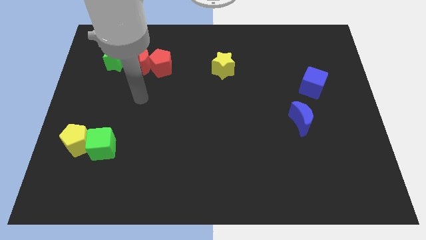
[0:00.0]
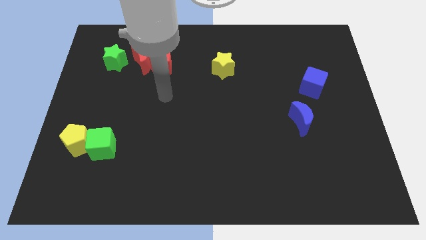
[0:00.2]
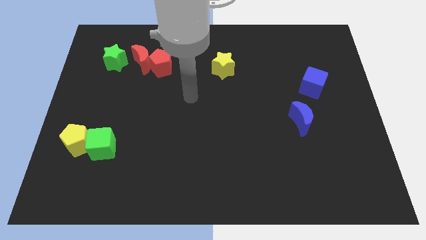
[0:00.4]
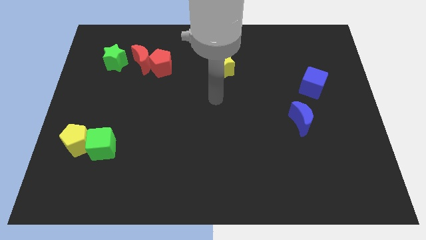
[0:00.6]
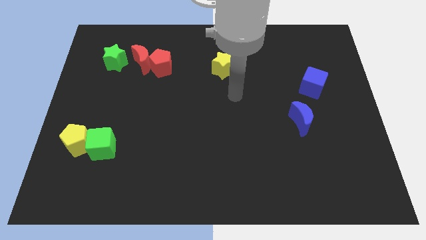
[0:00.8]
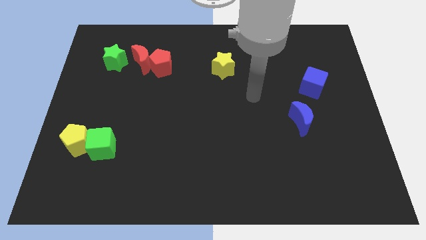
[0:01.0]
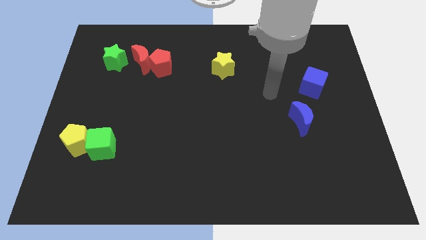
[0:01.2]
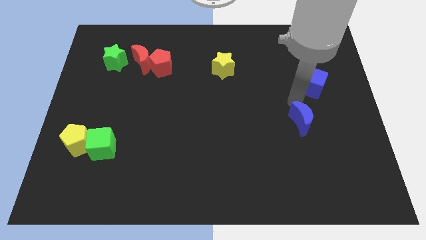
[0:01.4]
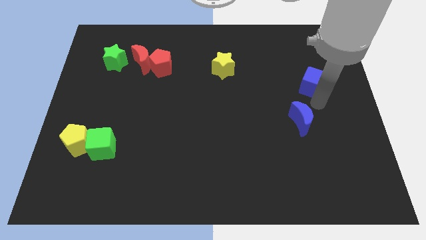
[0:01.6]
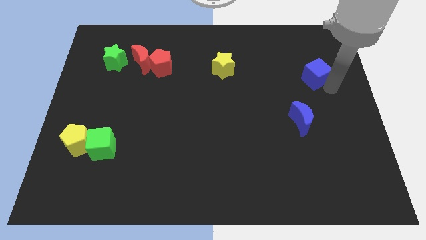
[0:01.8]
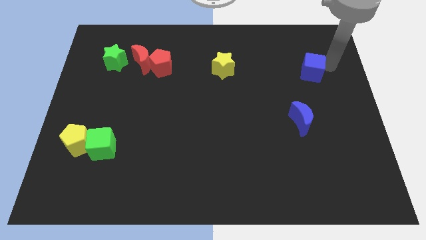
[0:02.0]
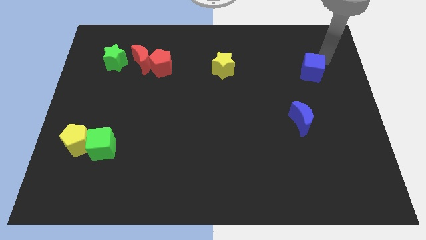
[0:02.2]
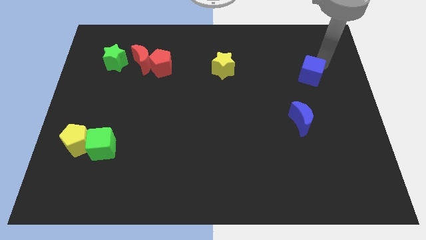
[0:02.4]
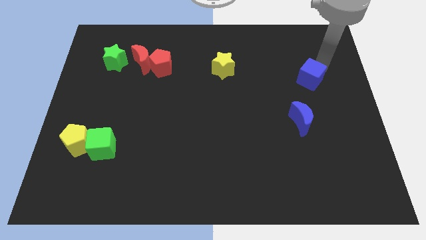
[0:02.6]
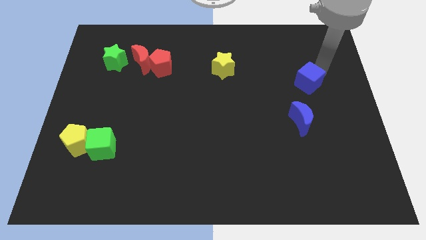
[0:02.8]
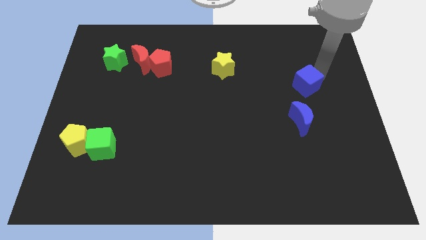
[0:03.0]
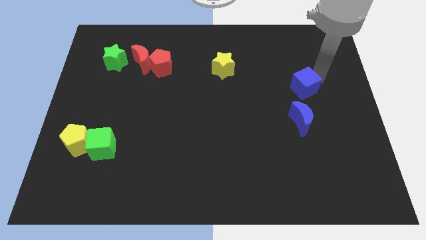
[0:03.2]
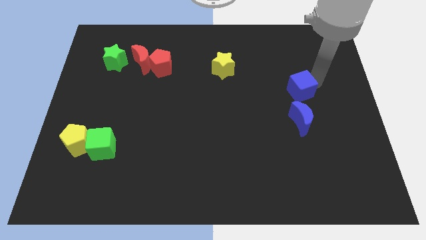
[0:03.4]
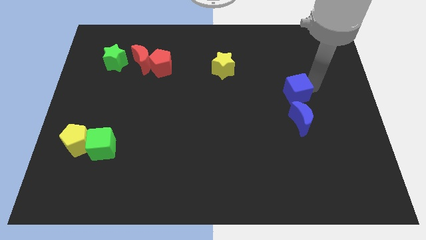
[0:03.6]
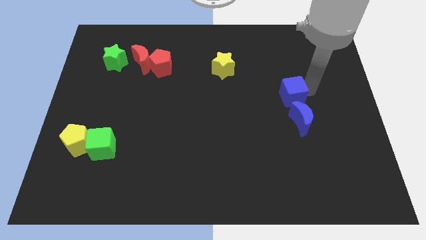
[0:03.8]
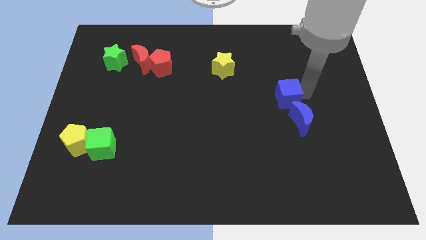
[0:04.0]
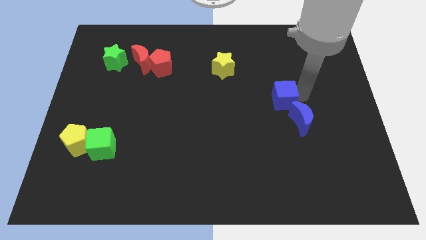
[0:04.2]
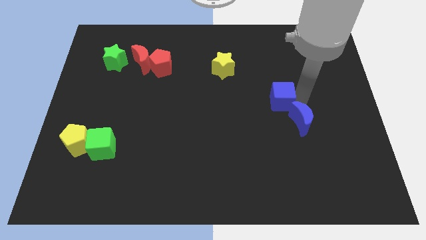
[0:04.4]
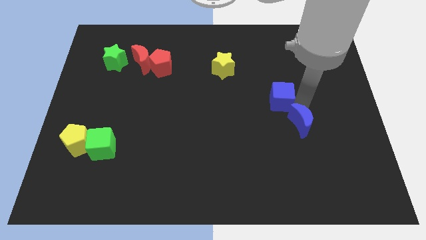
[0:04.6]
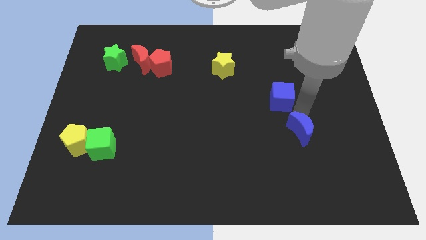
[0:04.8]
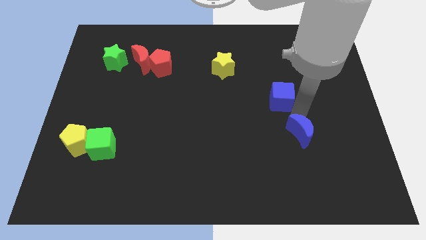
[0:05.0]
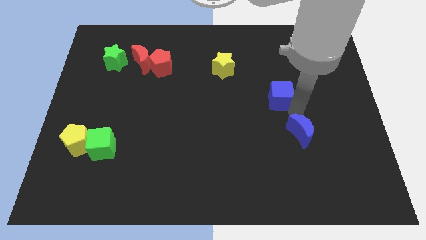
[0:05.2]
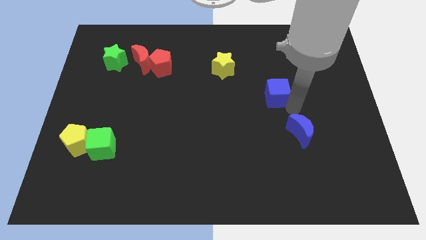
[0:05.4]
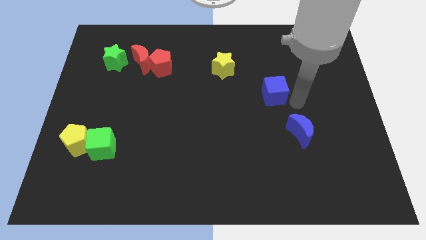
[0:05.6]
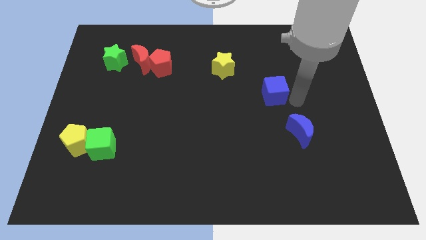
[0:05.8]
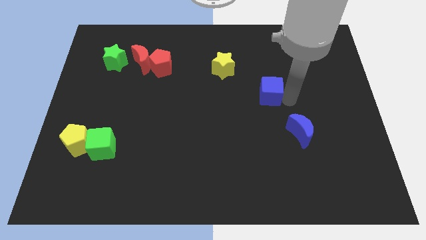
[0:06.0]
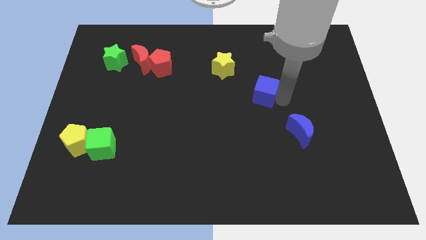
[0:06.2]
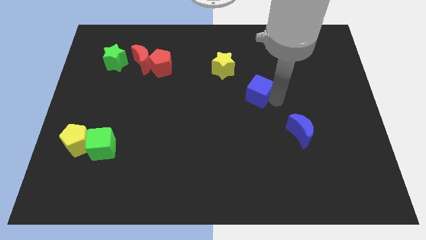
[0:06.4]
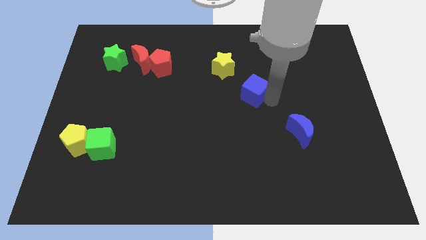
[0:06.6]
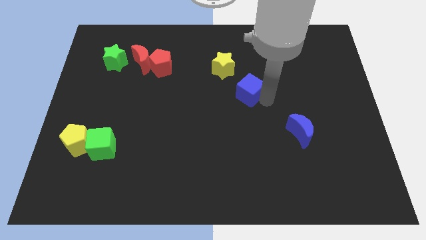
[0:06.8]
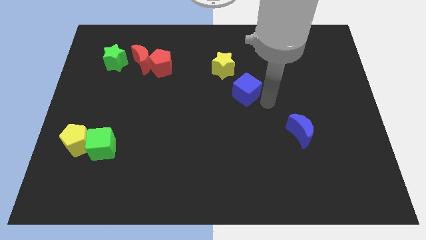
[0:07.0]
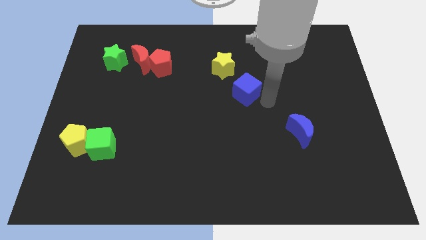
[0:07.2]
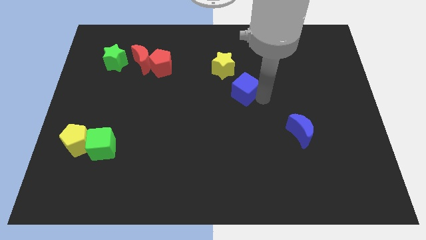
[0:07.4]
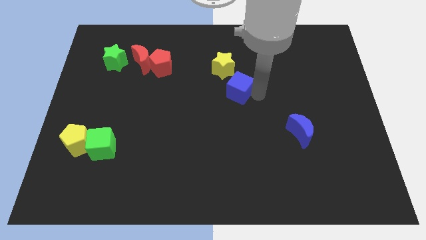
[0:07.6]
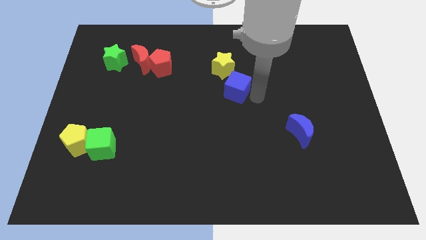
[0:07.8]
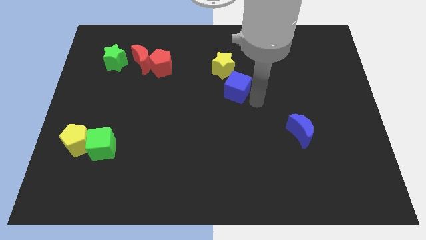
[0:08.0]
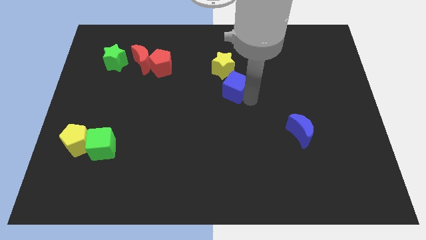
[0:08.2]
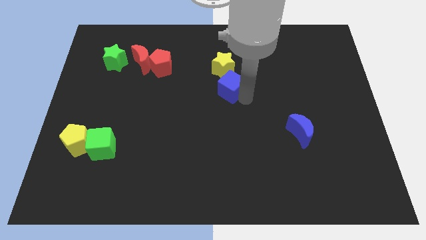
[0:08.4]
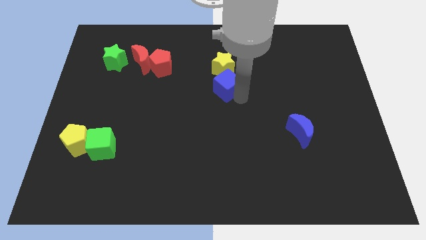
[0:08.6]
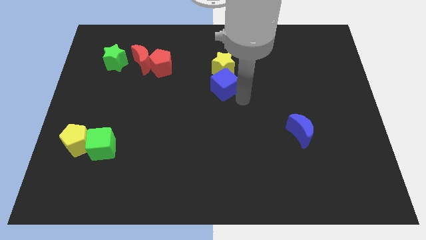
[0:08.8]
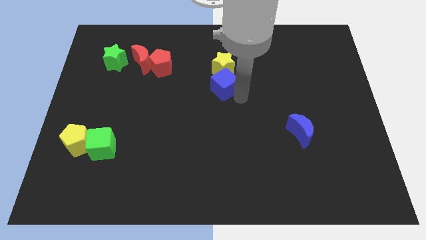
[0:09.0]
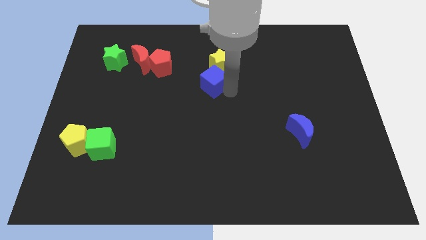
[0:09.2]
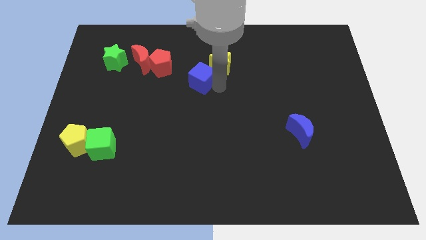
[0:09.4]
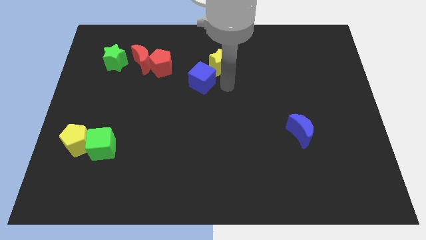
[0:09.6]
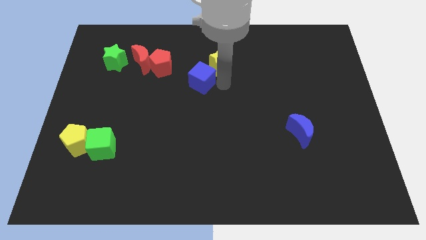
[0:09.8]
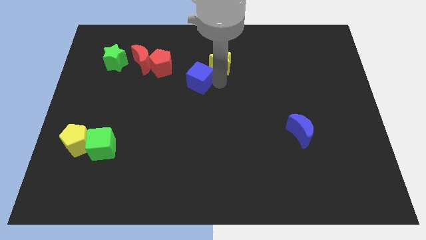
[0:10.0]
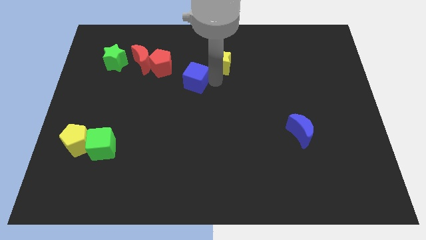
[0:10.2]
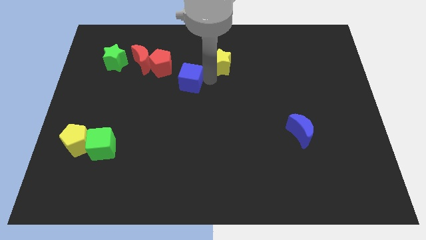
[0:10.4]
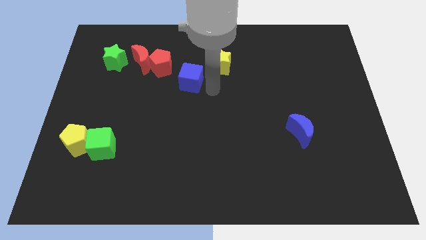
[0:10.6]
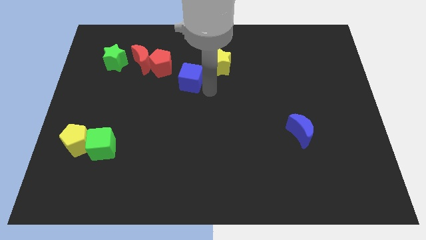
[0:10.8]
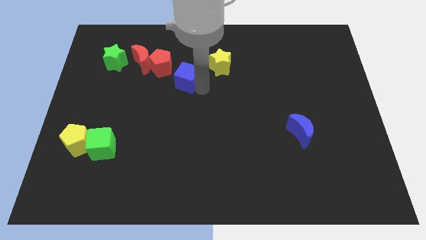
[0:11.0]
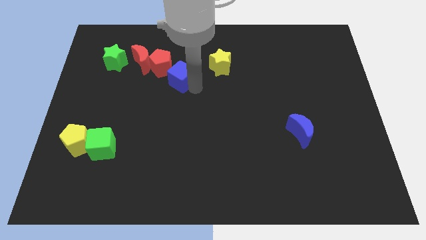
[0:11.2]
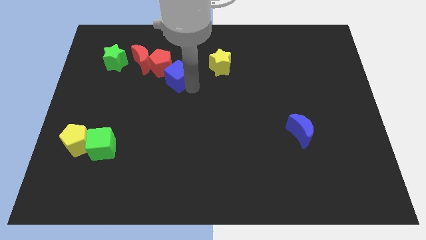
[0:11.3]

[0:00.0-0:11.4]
slide the blue cube next to the red pentagon

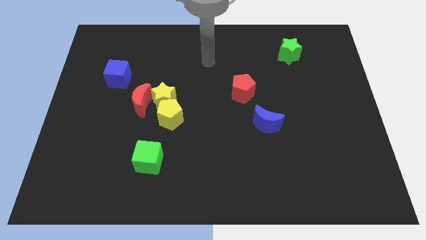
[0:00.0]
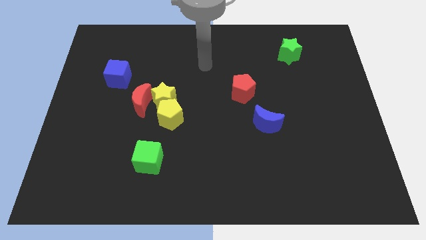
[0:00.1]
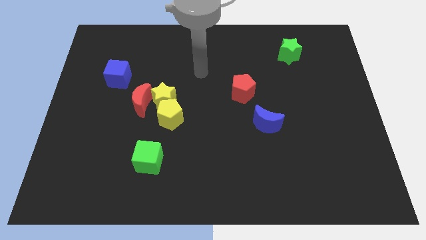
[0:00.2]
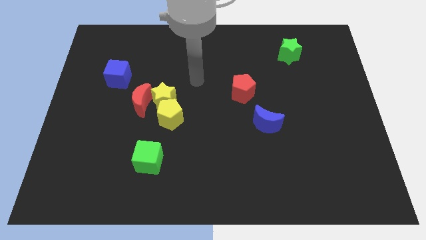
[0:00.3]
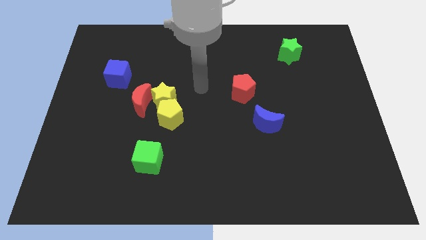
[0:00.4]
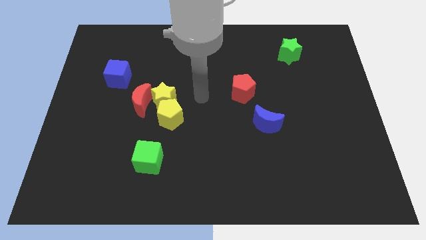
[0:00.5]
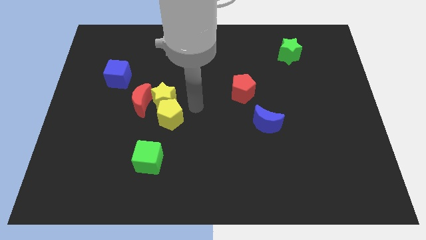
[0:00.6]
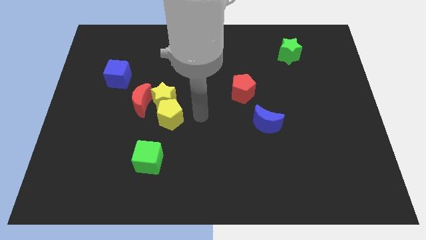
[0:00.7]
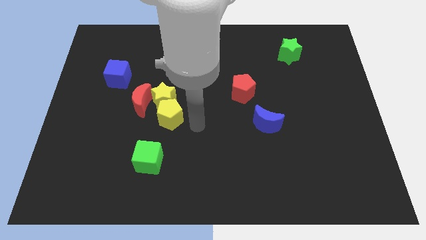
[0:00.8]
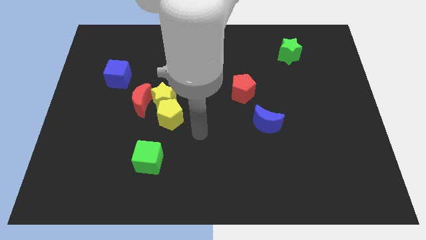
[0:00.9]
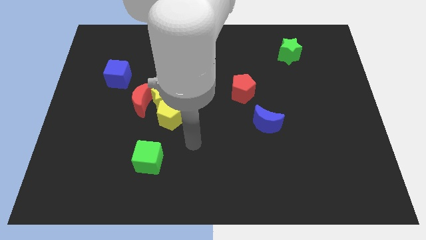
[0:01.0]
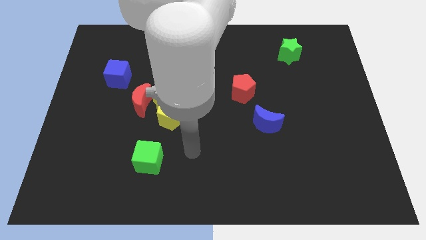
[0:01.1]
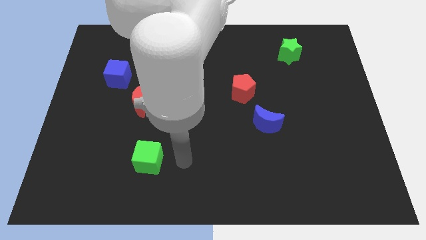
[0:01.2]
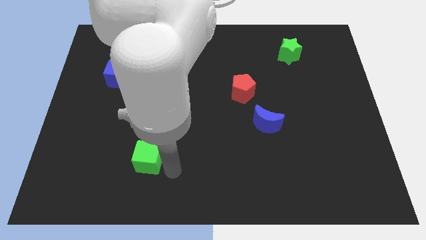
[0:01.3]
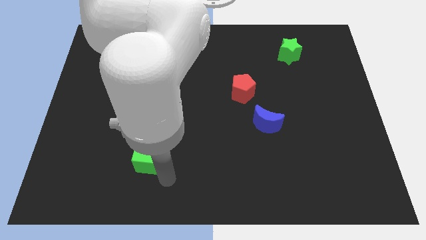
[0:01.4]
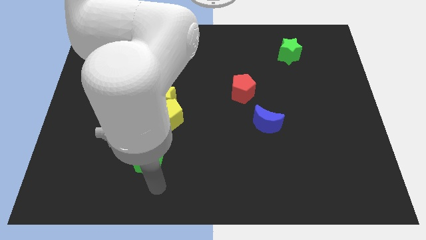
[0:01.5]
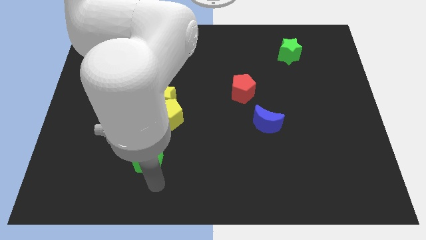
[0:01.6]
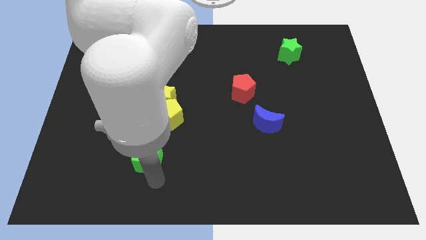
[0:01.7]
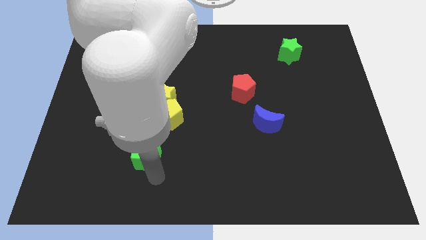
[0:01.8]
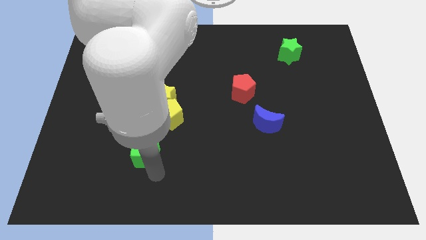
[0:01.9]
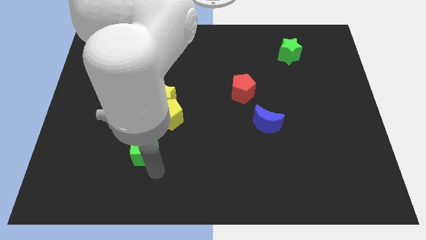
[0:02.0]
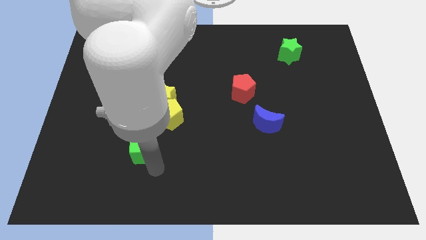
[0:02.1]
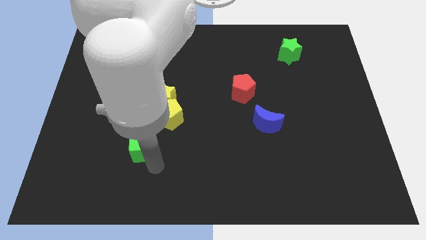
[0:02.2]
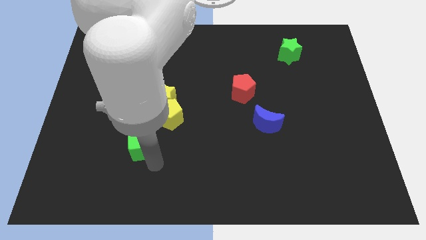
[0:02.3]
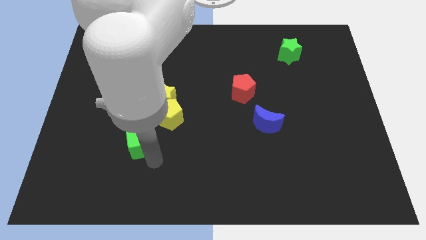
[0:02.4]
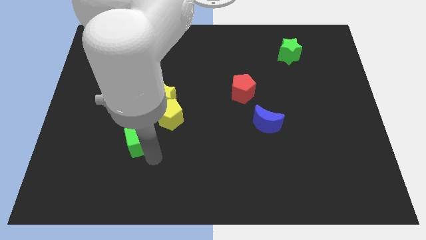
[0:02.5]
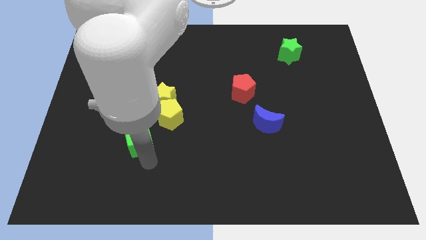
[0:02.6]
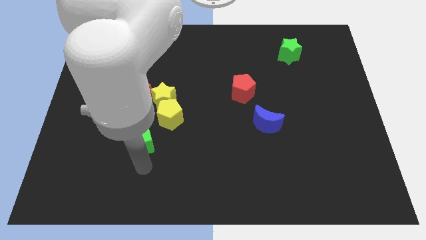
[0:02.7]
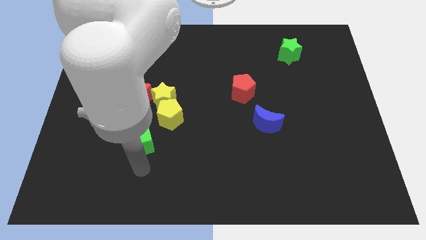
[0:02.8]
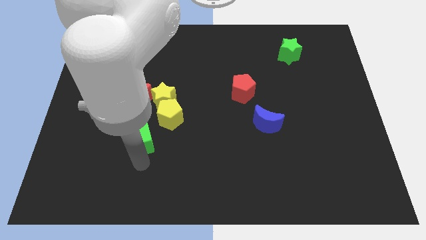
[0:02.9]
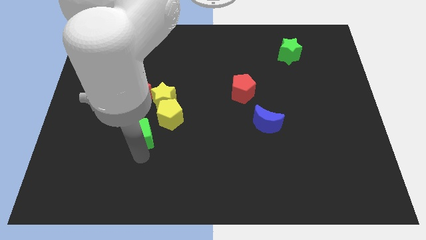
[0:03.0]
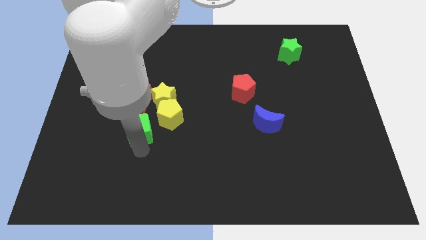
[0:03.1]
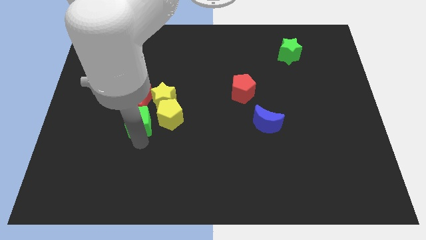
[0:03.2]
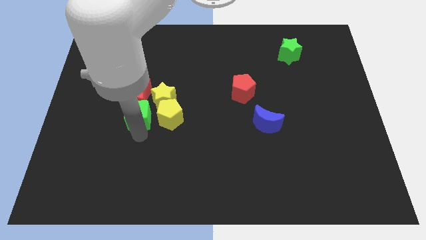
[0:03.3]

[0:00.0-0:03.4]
put the green cube towards the red moon
